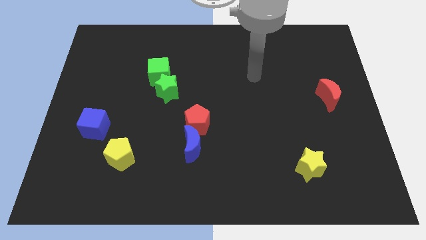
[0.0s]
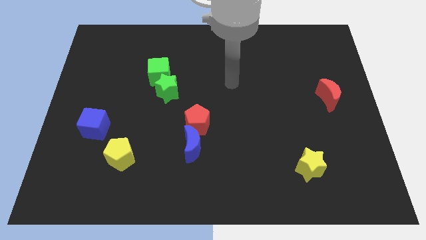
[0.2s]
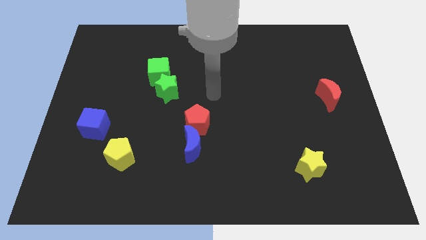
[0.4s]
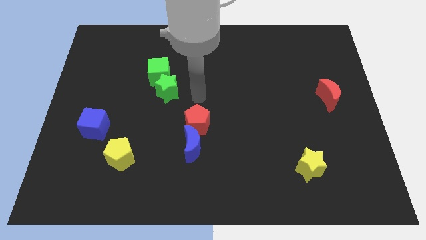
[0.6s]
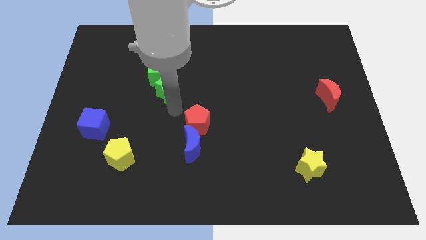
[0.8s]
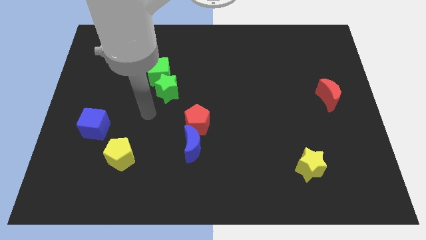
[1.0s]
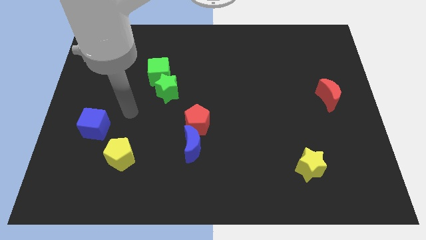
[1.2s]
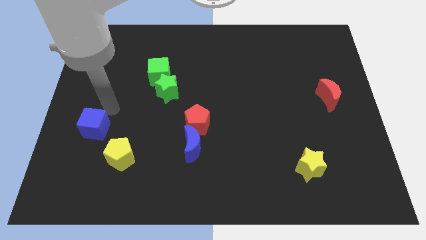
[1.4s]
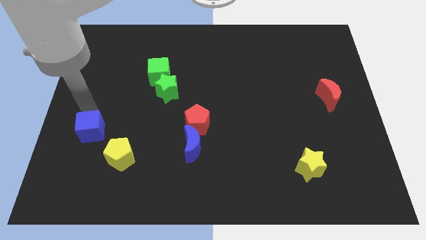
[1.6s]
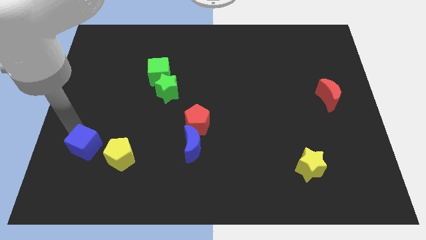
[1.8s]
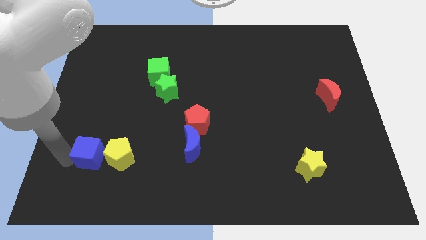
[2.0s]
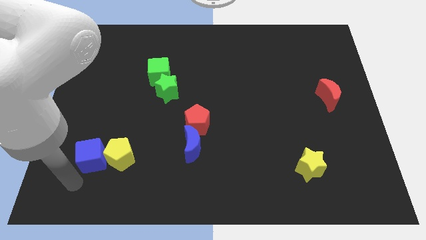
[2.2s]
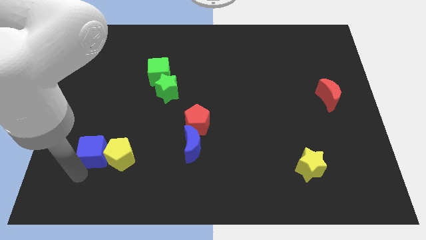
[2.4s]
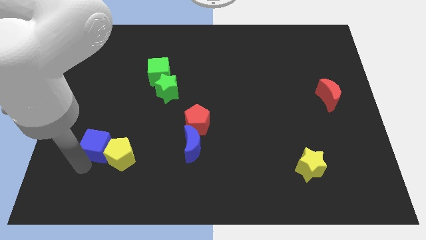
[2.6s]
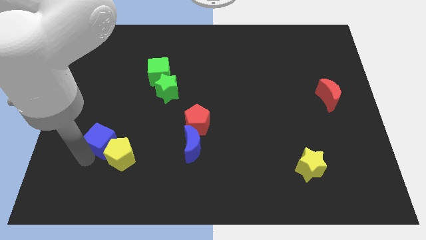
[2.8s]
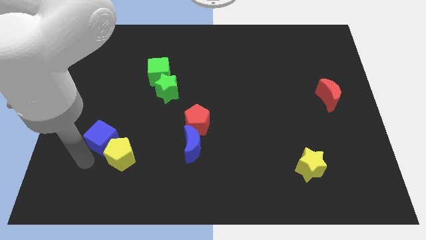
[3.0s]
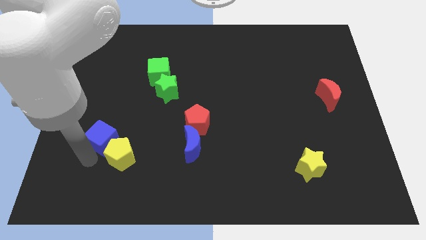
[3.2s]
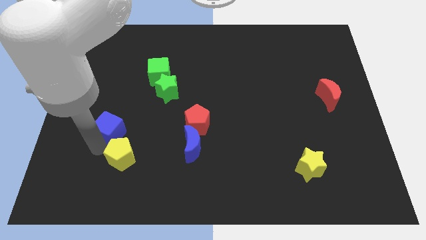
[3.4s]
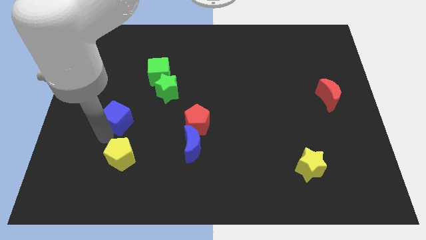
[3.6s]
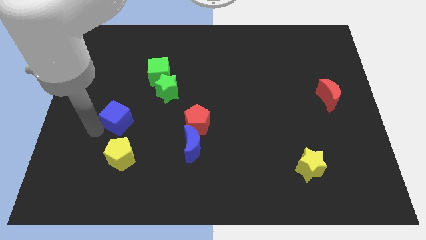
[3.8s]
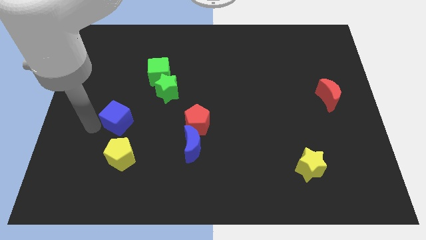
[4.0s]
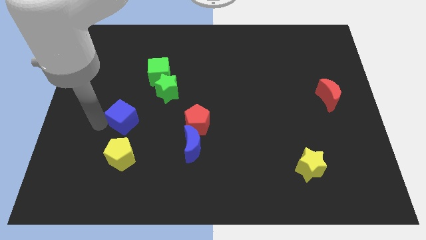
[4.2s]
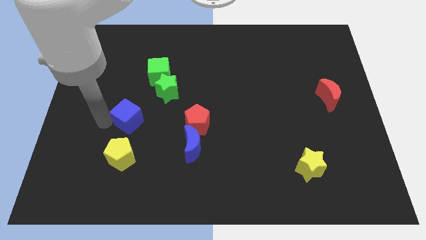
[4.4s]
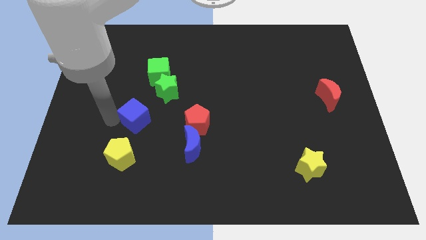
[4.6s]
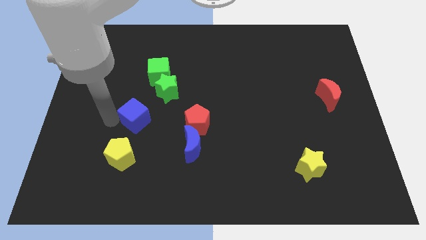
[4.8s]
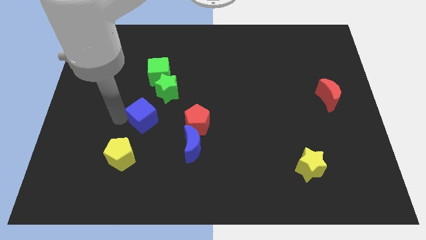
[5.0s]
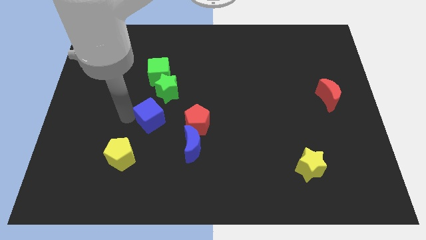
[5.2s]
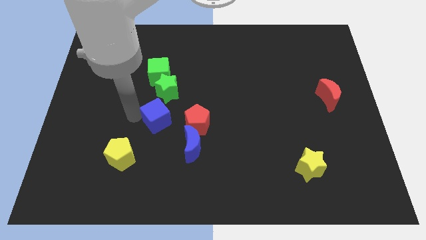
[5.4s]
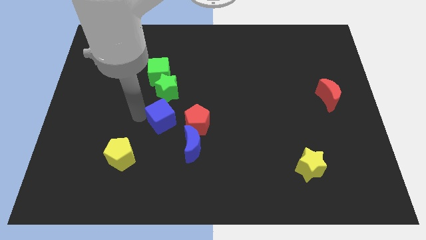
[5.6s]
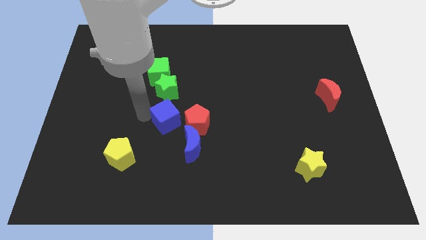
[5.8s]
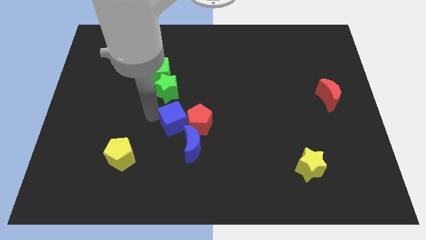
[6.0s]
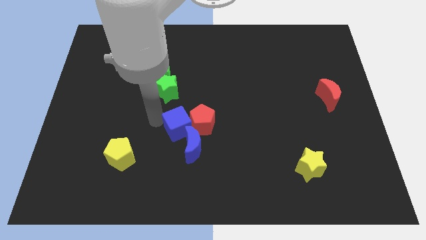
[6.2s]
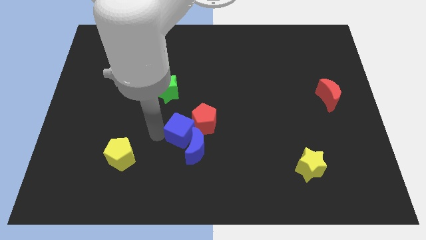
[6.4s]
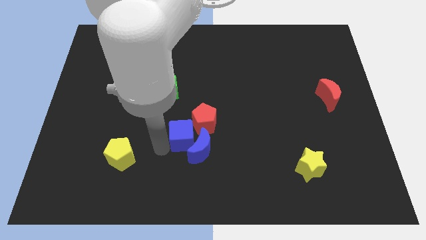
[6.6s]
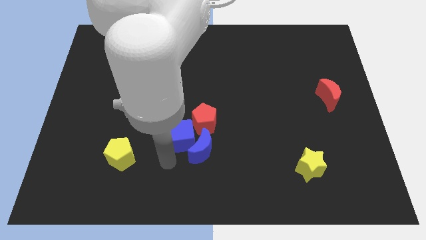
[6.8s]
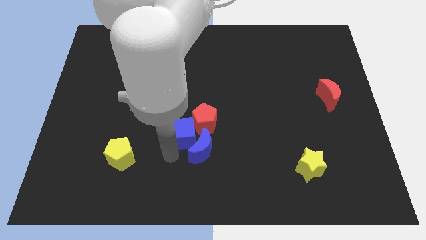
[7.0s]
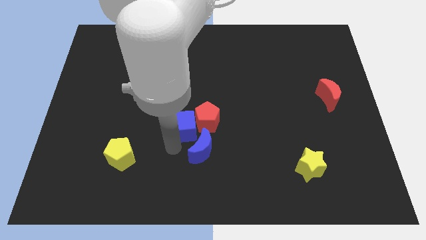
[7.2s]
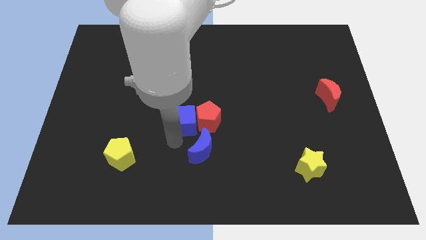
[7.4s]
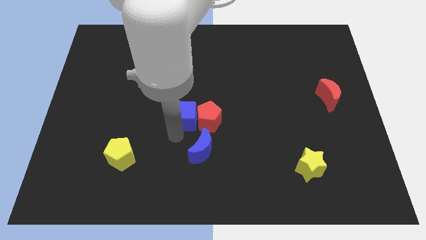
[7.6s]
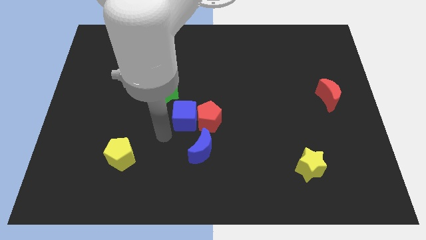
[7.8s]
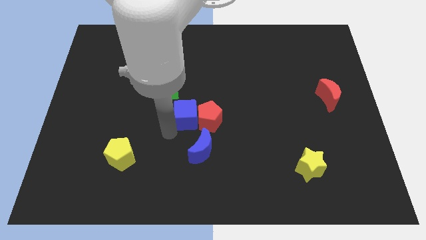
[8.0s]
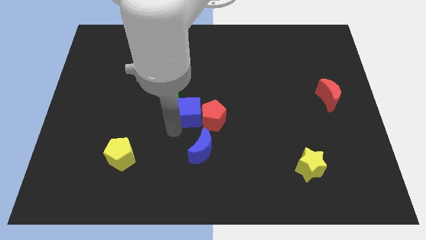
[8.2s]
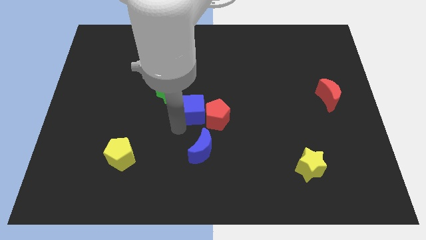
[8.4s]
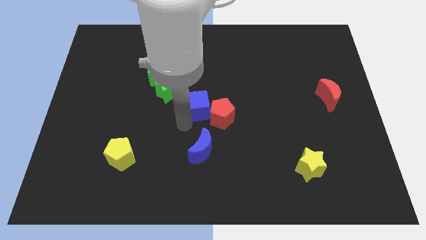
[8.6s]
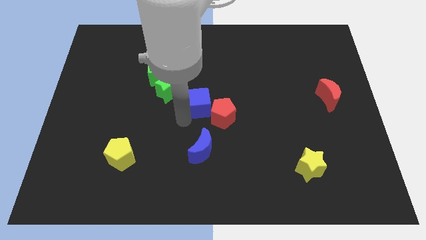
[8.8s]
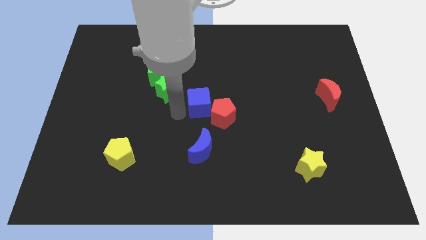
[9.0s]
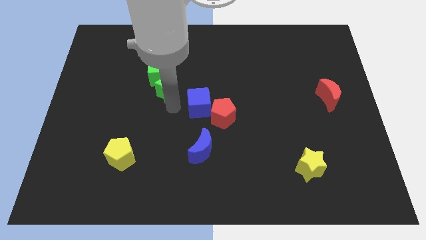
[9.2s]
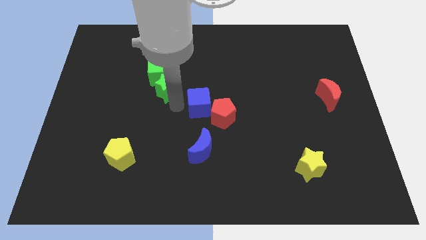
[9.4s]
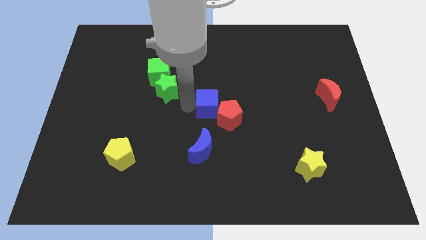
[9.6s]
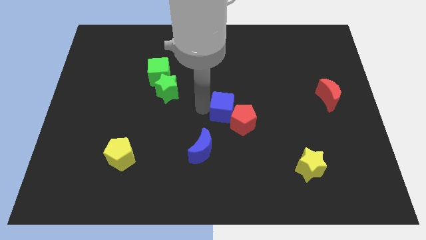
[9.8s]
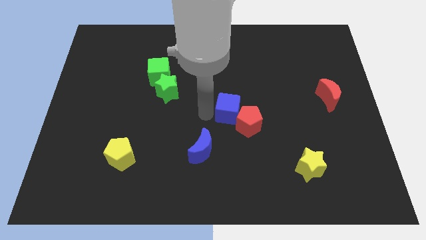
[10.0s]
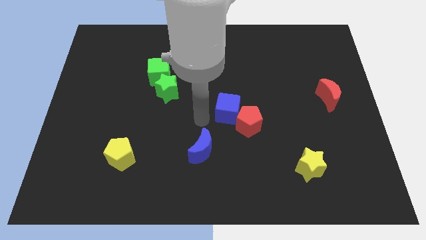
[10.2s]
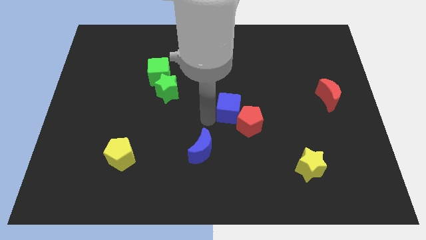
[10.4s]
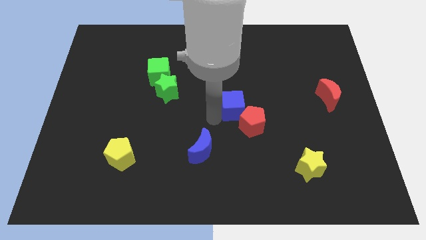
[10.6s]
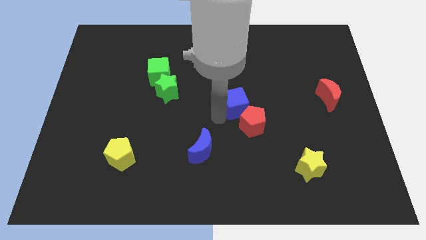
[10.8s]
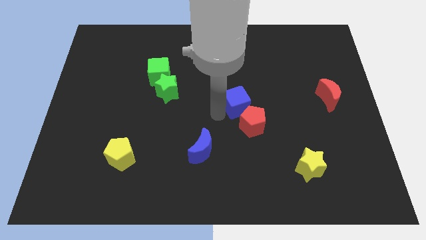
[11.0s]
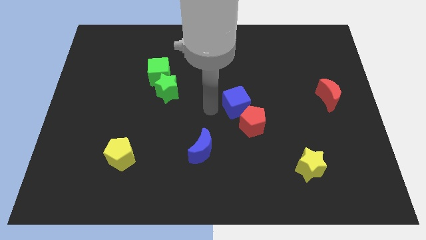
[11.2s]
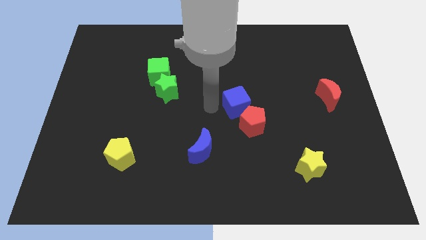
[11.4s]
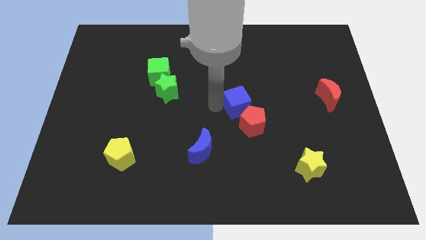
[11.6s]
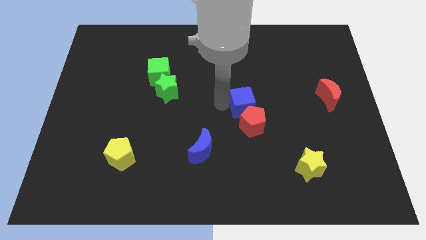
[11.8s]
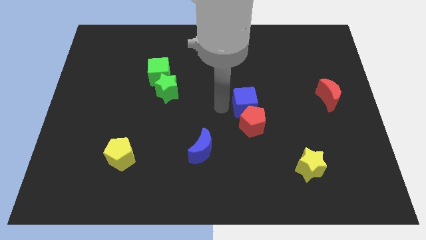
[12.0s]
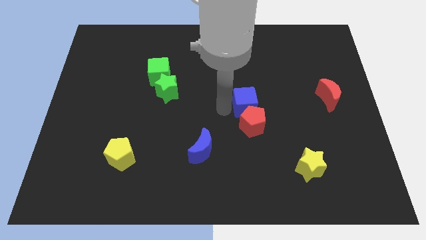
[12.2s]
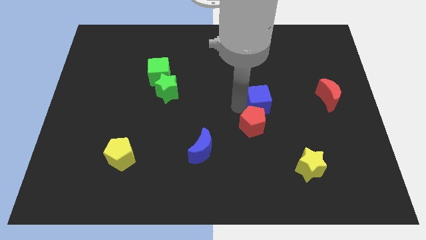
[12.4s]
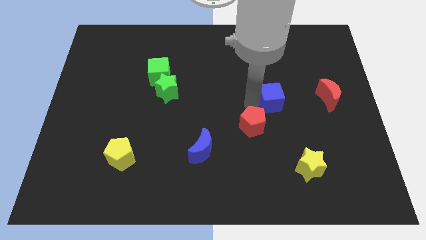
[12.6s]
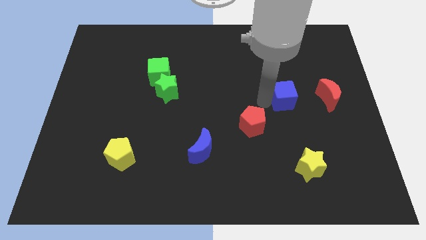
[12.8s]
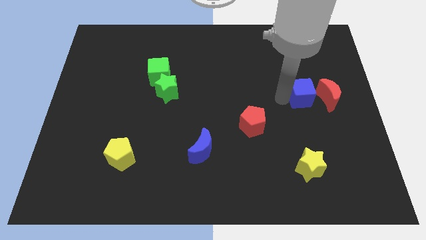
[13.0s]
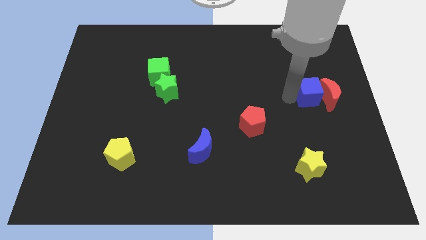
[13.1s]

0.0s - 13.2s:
put the blue cube next to the red moon

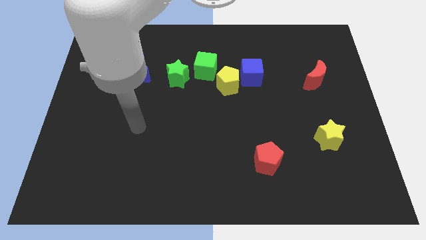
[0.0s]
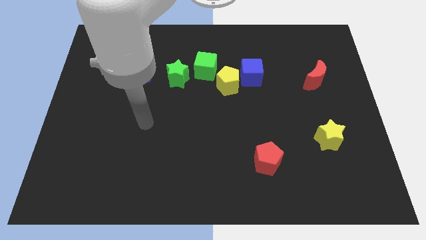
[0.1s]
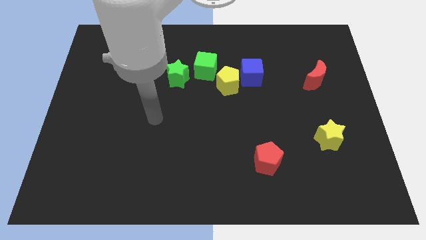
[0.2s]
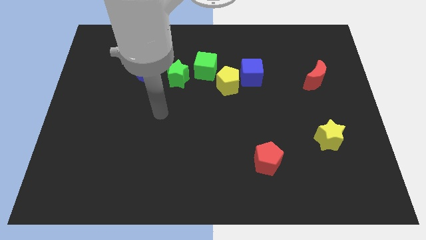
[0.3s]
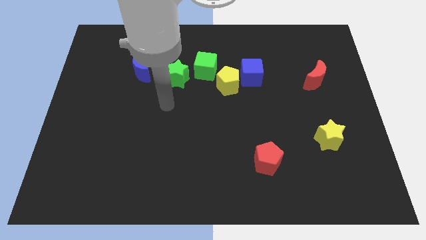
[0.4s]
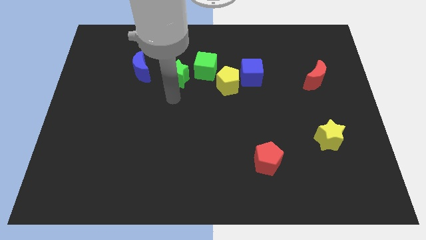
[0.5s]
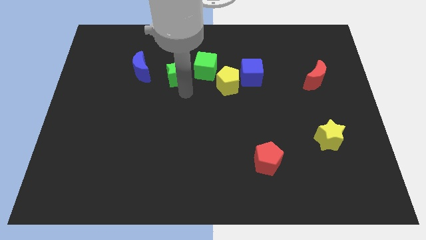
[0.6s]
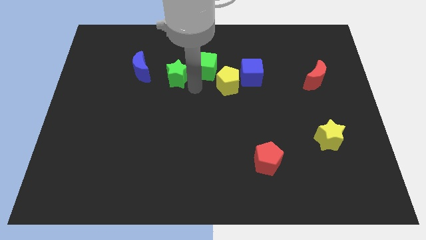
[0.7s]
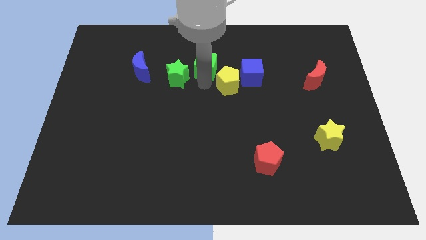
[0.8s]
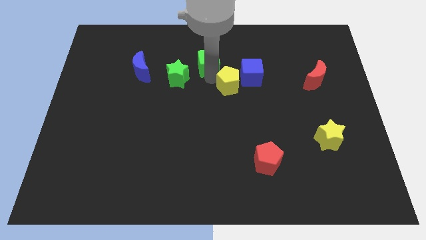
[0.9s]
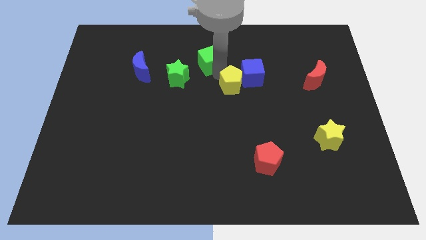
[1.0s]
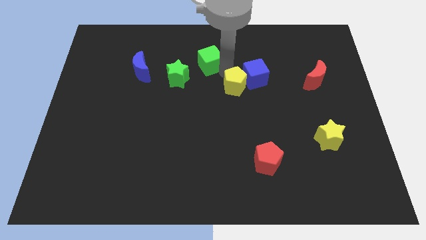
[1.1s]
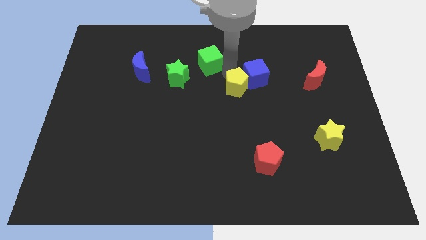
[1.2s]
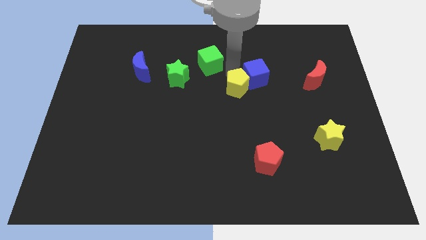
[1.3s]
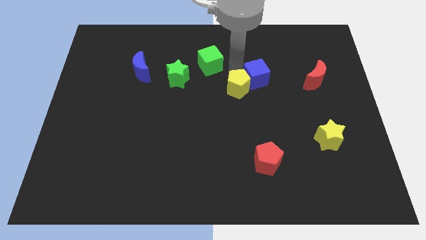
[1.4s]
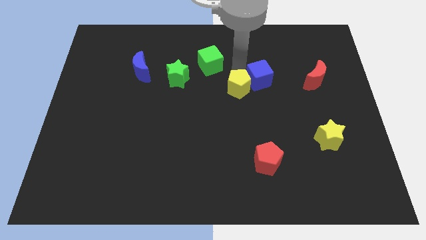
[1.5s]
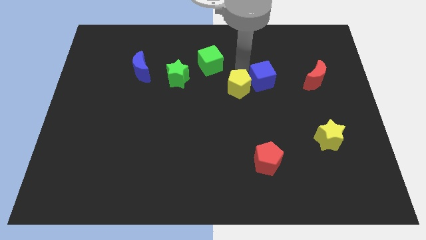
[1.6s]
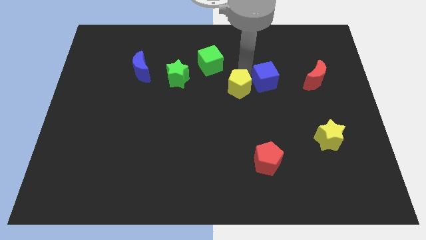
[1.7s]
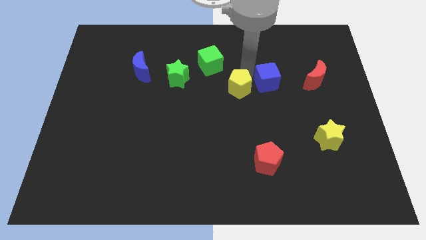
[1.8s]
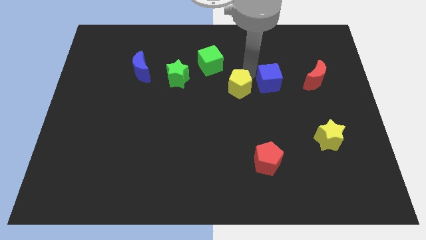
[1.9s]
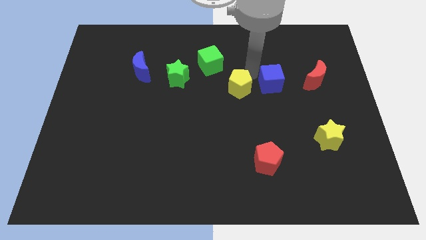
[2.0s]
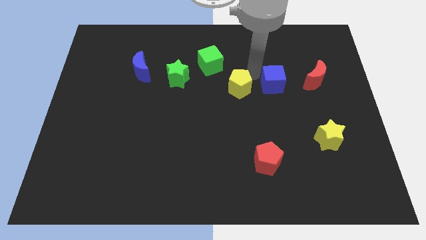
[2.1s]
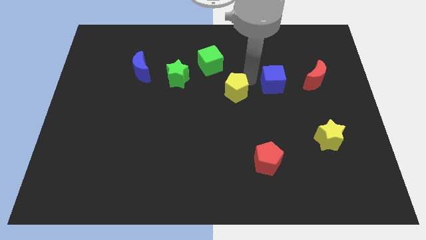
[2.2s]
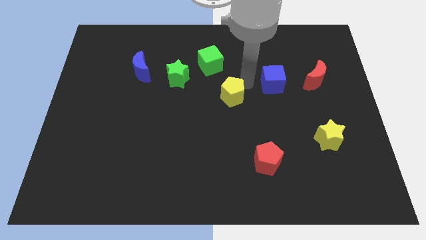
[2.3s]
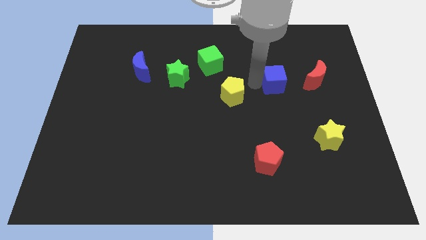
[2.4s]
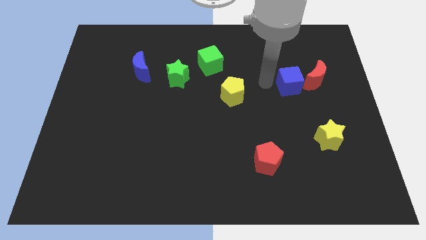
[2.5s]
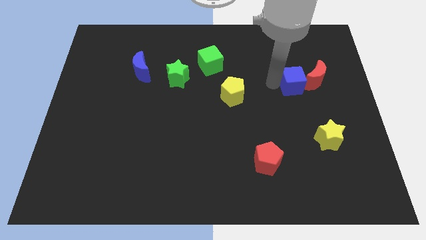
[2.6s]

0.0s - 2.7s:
slide the blue cube towards the red moon
